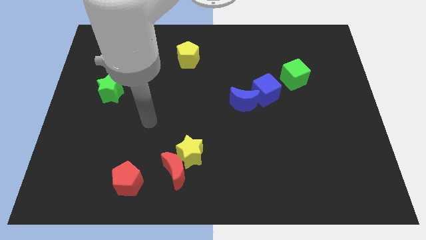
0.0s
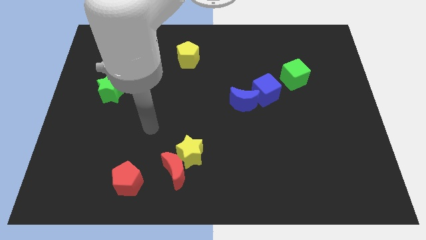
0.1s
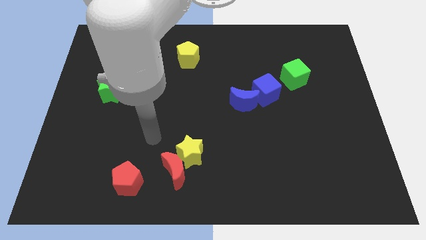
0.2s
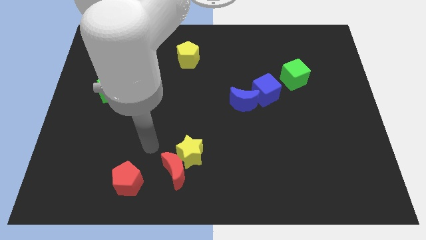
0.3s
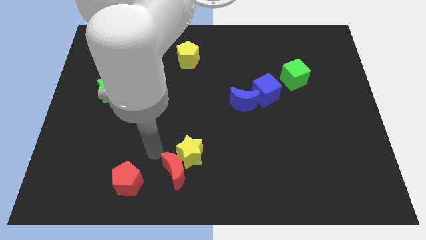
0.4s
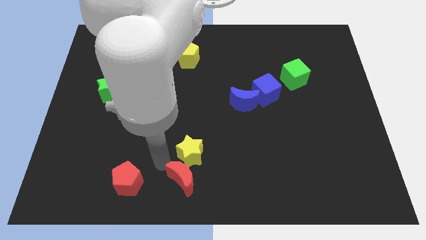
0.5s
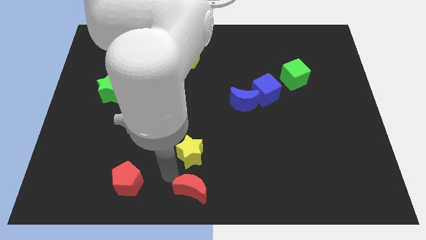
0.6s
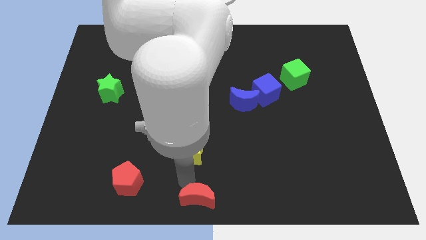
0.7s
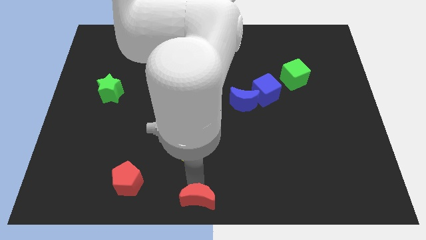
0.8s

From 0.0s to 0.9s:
move the yellow star away from the red moon

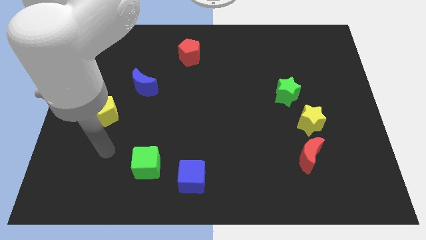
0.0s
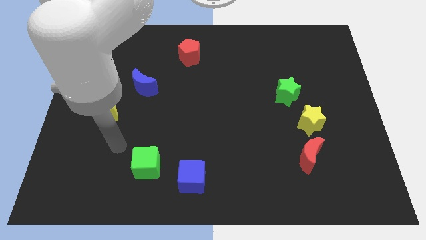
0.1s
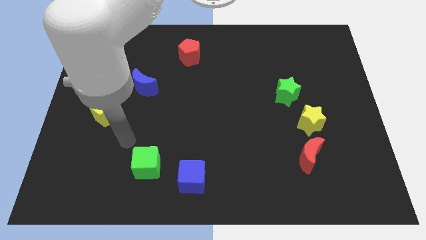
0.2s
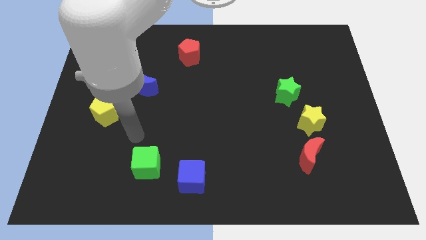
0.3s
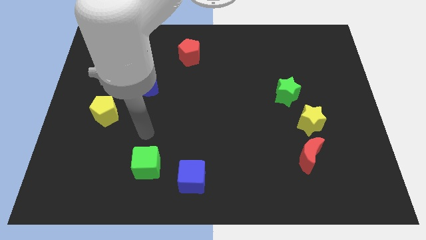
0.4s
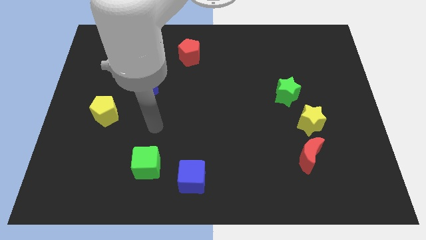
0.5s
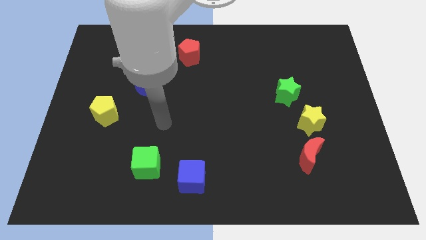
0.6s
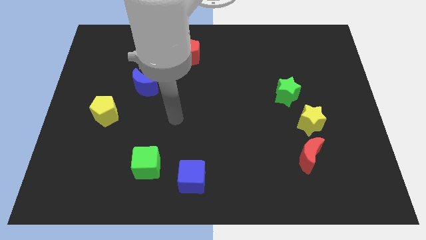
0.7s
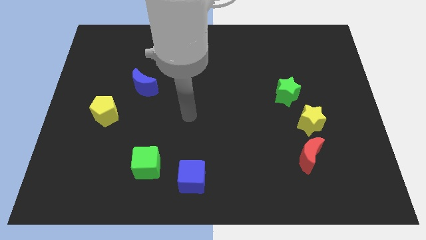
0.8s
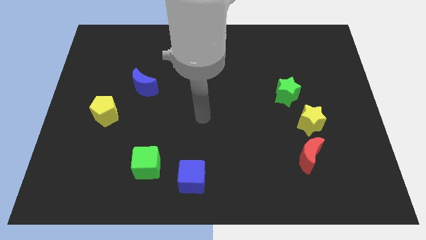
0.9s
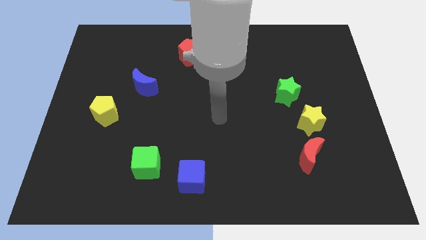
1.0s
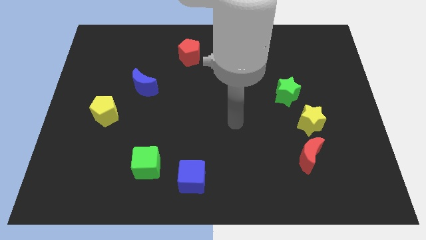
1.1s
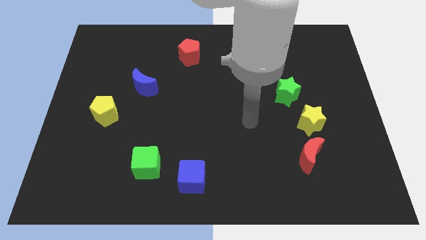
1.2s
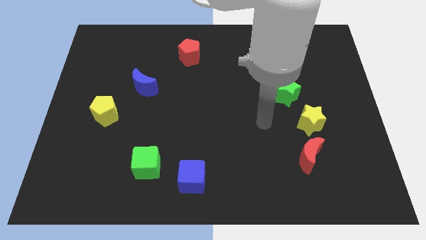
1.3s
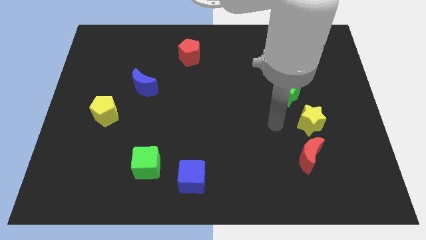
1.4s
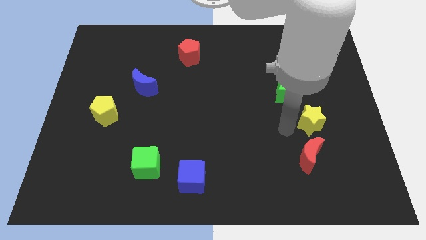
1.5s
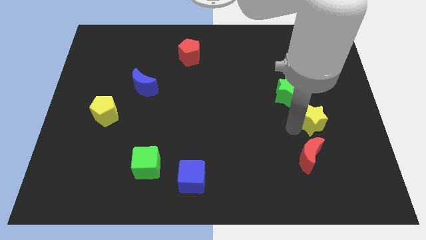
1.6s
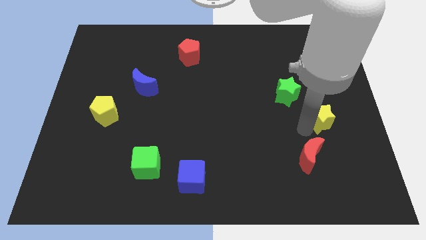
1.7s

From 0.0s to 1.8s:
separate the red moon from the yellow star

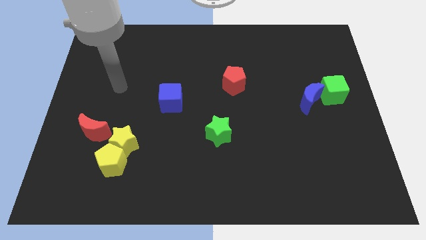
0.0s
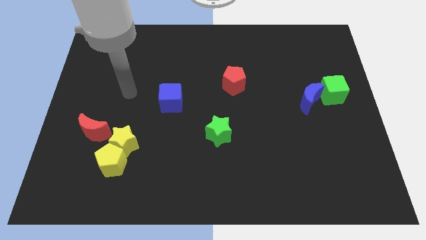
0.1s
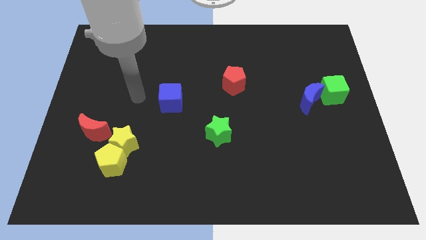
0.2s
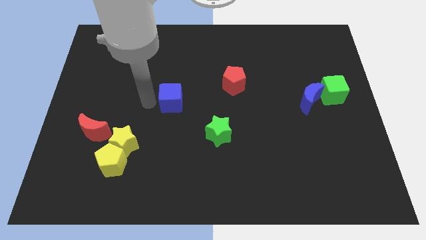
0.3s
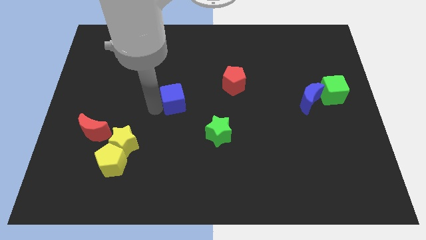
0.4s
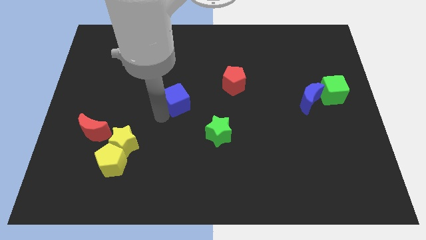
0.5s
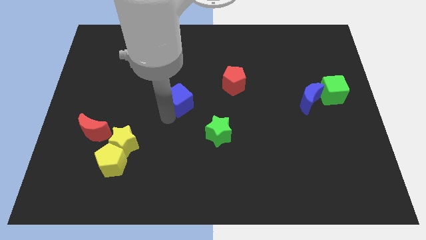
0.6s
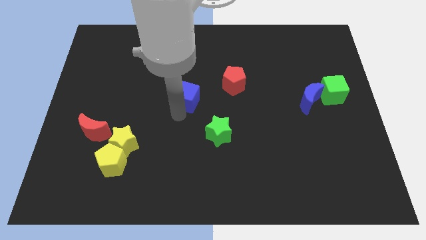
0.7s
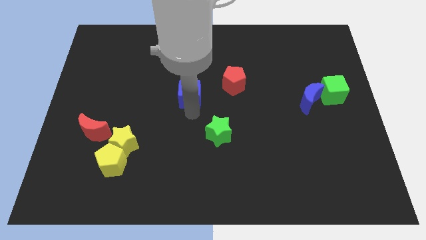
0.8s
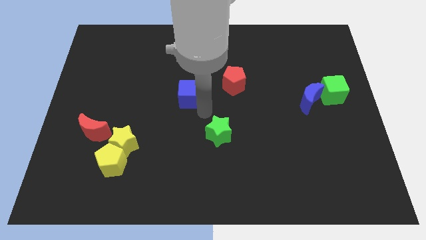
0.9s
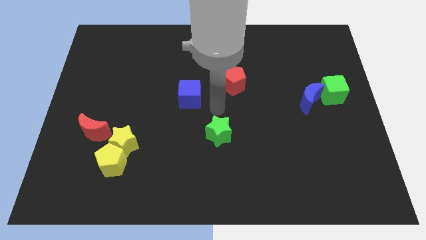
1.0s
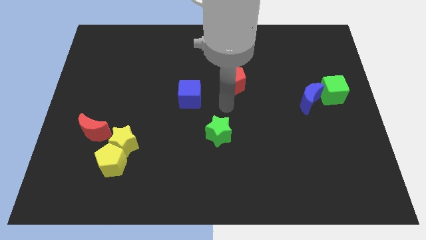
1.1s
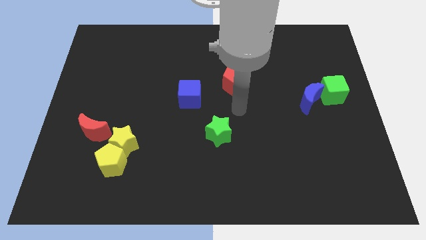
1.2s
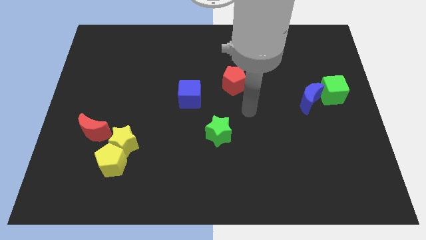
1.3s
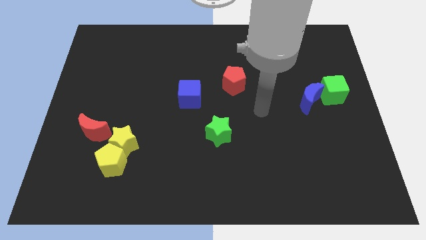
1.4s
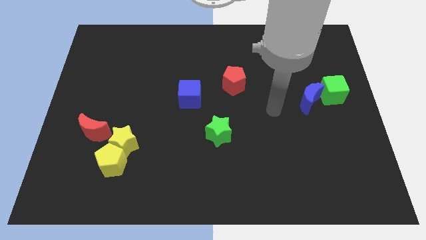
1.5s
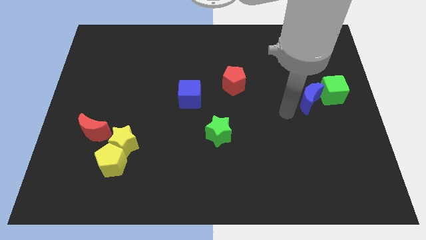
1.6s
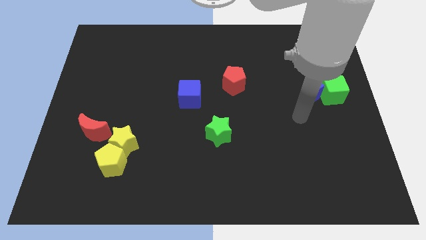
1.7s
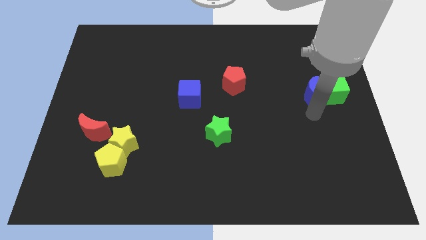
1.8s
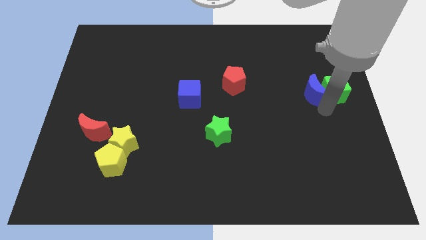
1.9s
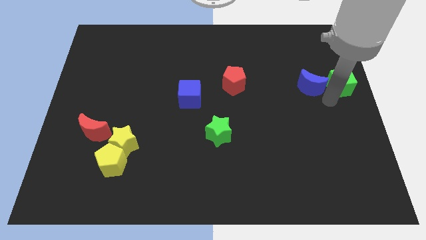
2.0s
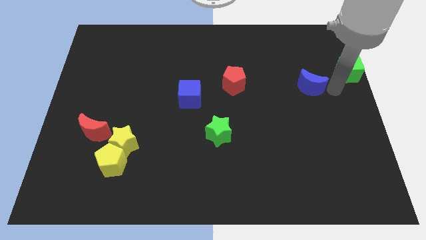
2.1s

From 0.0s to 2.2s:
separate the blue moon from the green cube

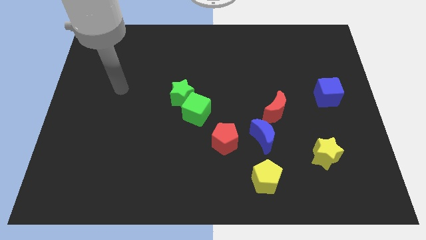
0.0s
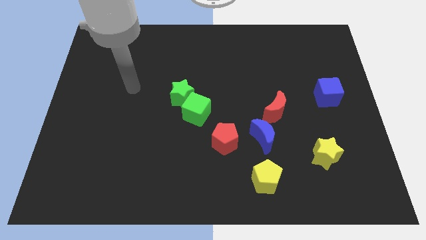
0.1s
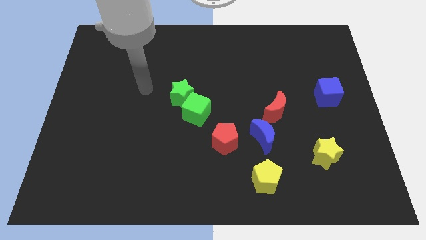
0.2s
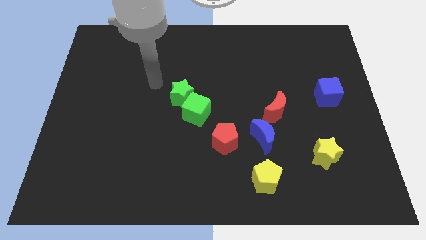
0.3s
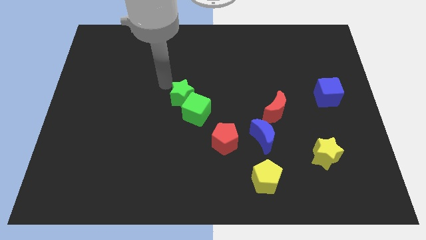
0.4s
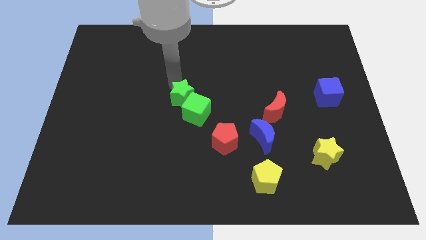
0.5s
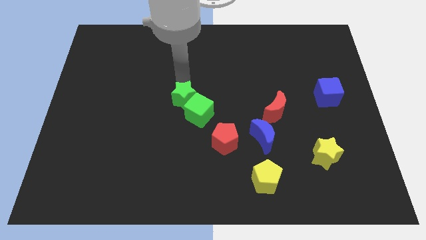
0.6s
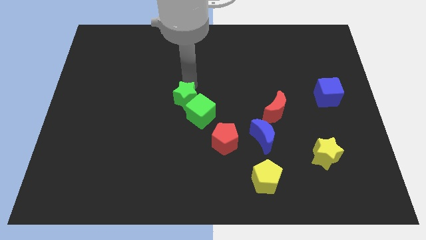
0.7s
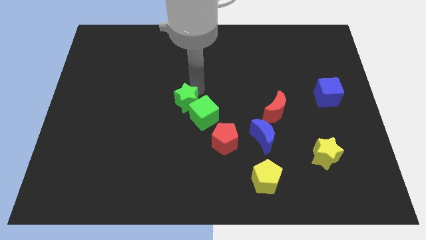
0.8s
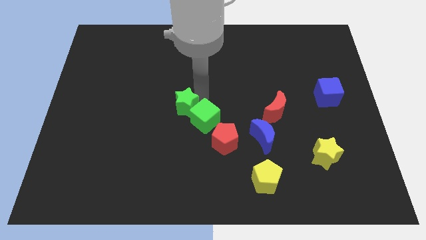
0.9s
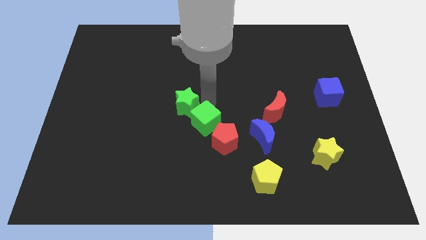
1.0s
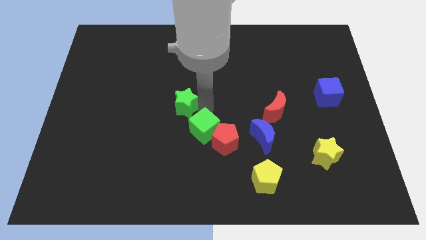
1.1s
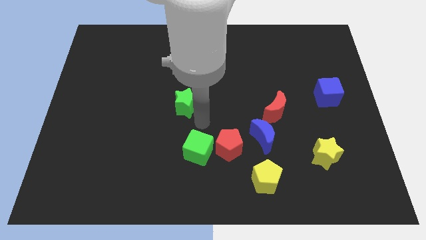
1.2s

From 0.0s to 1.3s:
pull the green star apart from the green cube

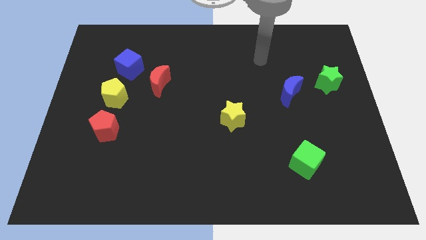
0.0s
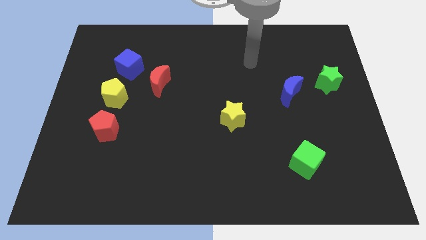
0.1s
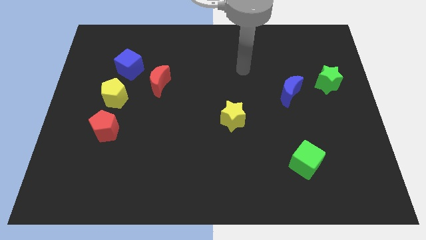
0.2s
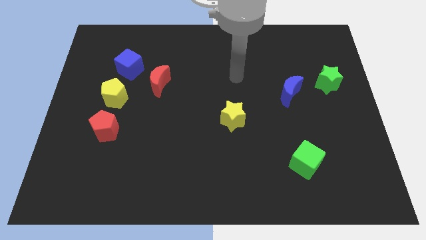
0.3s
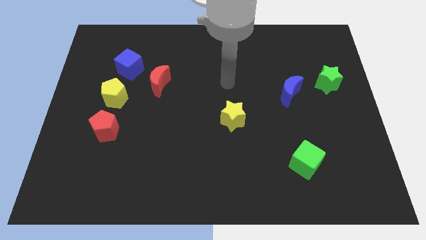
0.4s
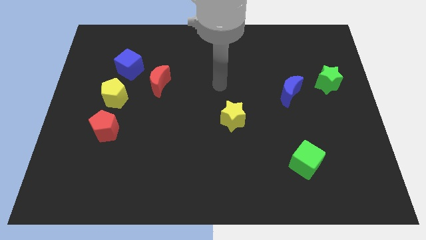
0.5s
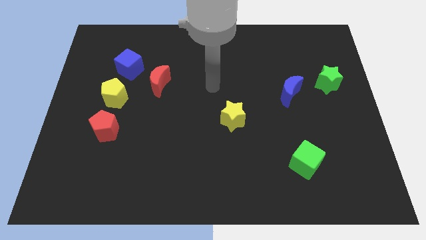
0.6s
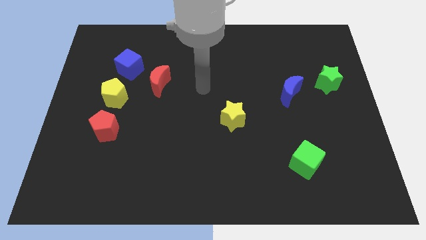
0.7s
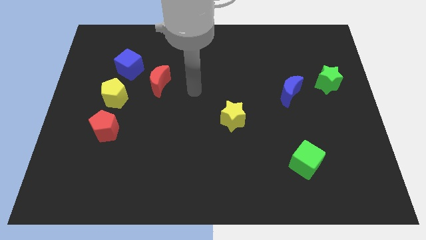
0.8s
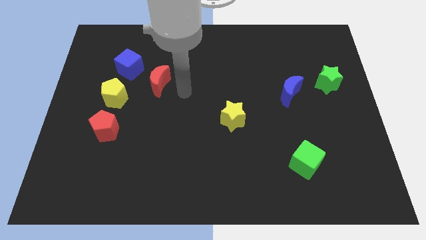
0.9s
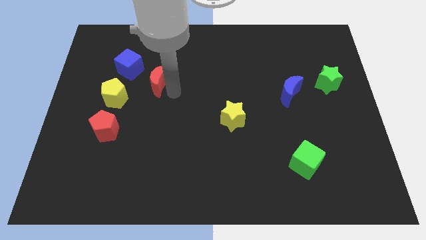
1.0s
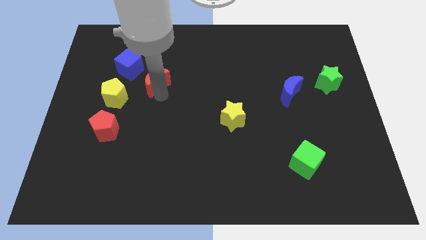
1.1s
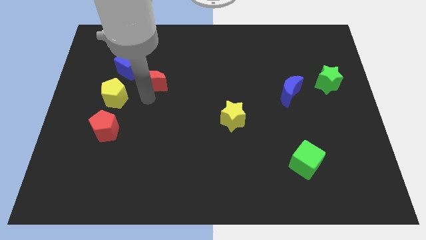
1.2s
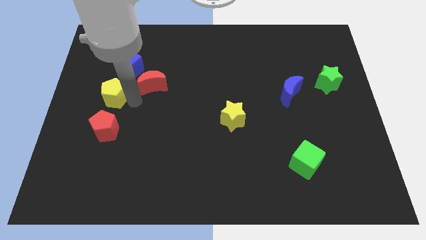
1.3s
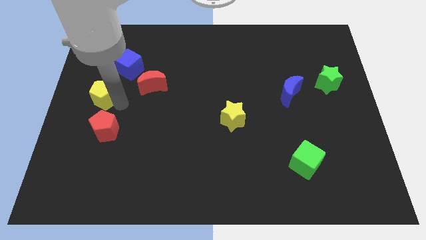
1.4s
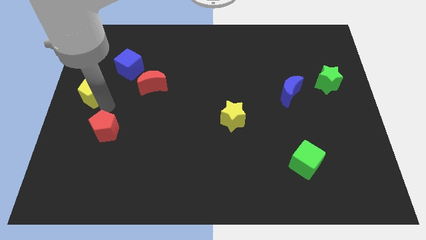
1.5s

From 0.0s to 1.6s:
pull the red pentagon apart from the yellow pentagon

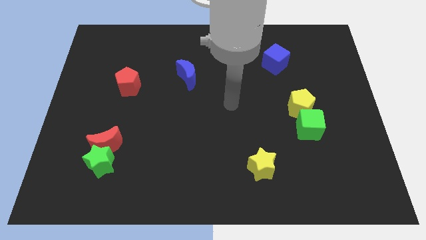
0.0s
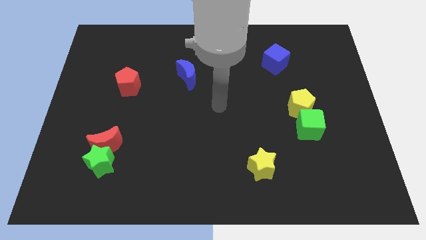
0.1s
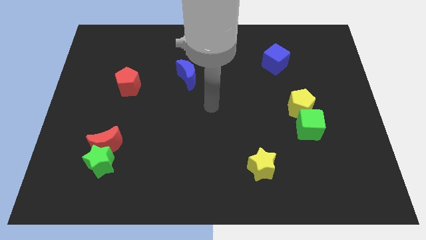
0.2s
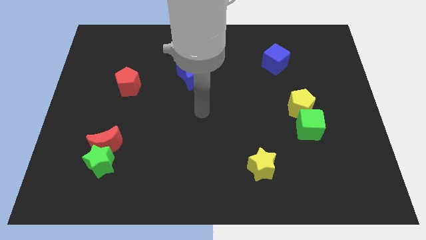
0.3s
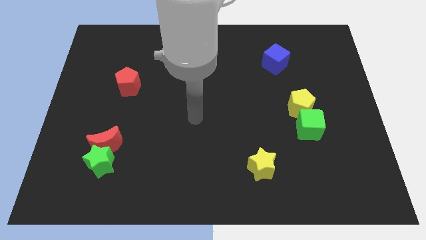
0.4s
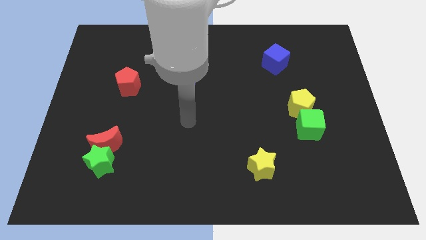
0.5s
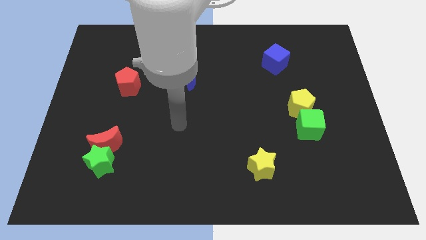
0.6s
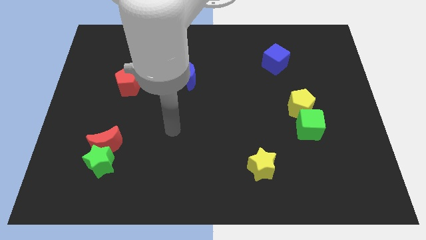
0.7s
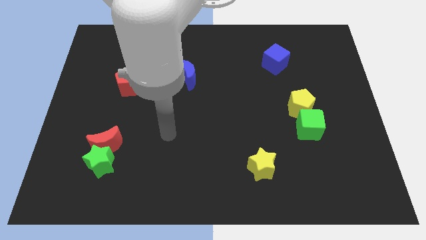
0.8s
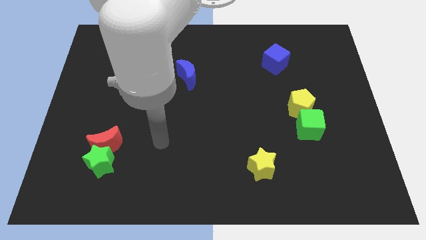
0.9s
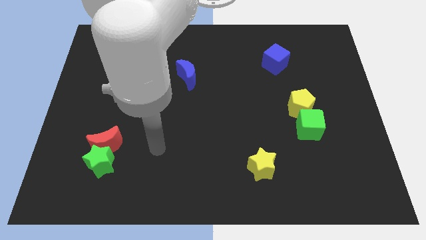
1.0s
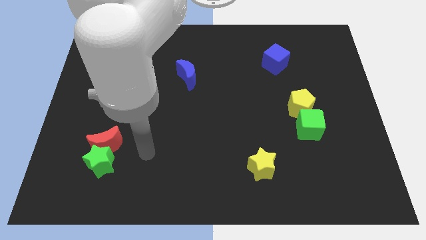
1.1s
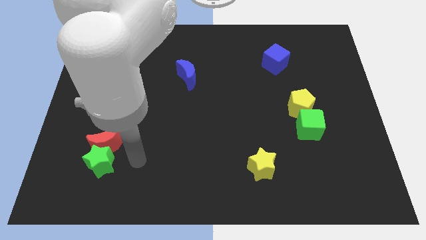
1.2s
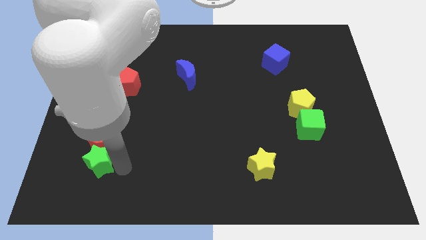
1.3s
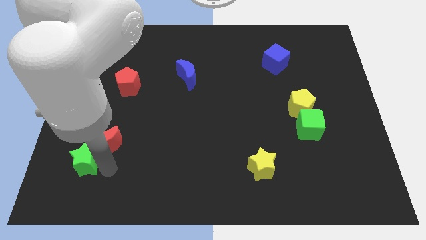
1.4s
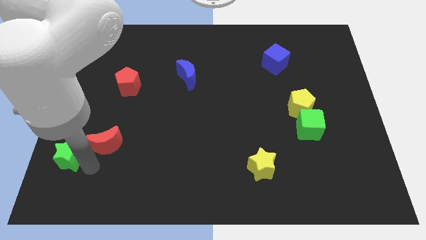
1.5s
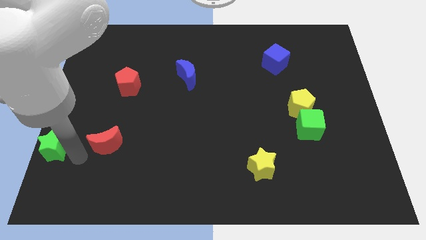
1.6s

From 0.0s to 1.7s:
separate the red moon from the green star
